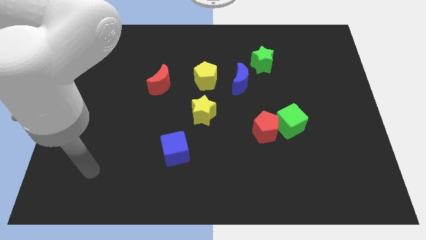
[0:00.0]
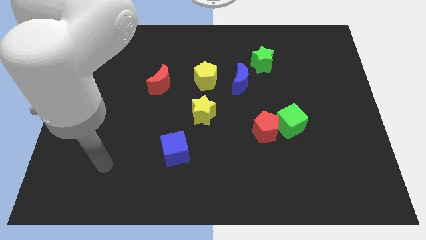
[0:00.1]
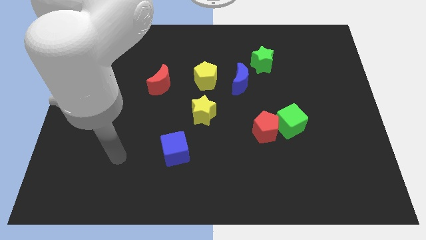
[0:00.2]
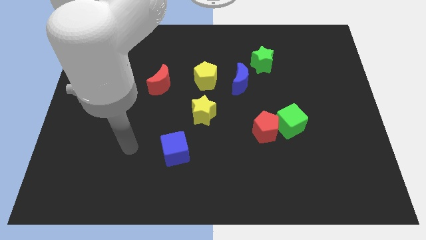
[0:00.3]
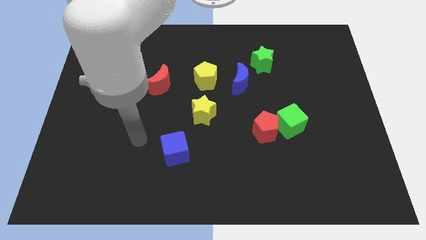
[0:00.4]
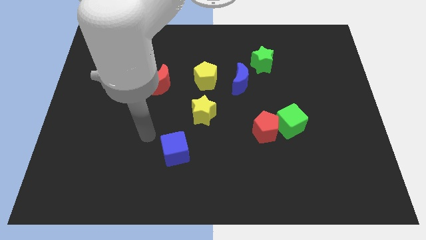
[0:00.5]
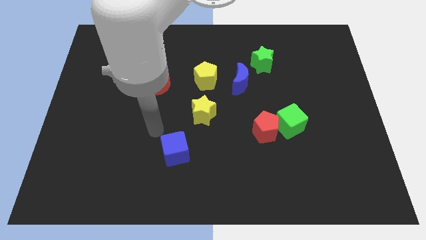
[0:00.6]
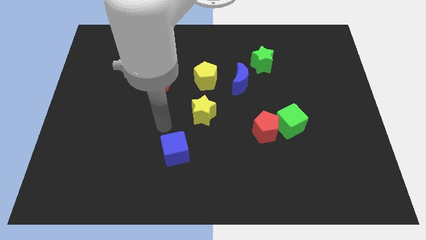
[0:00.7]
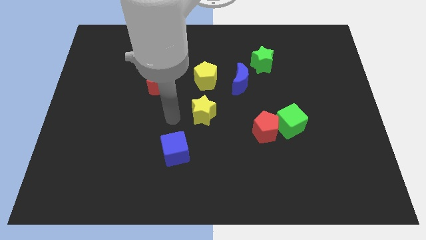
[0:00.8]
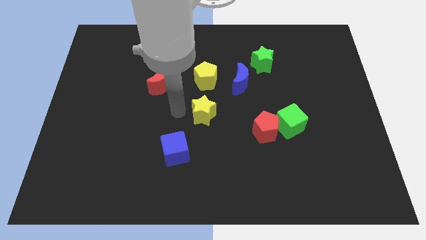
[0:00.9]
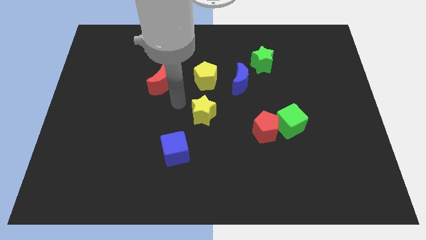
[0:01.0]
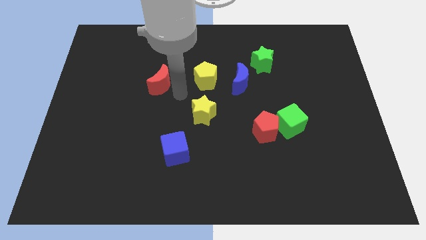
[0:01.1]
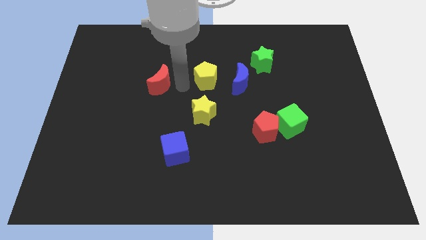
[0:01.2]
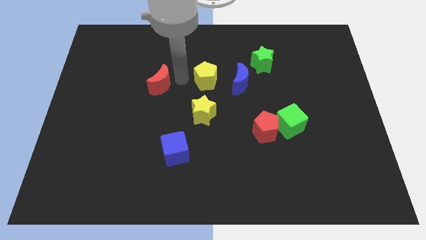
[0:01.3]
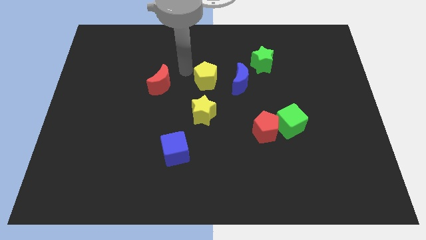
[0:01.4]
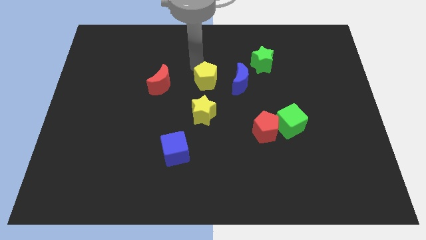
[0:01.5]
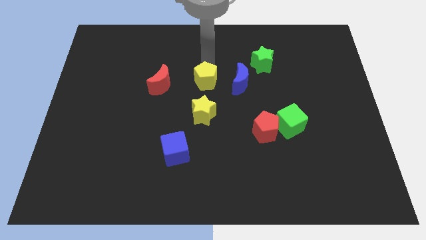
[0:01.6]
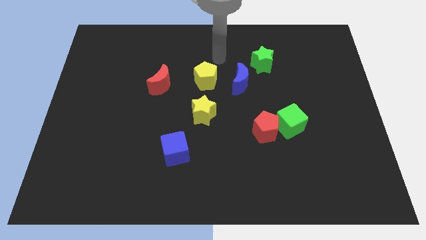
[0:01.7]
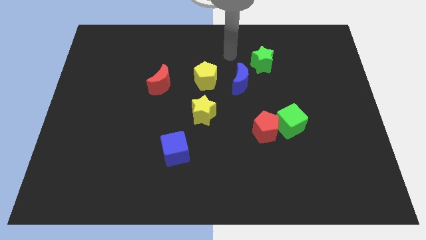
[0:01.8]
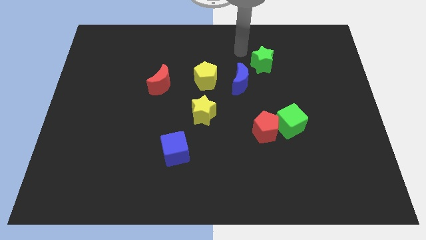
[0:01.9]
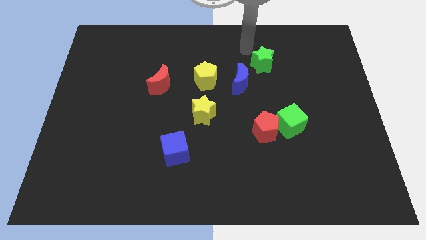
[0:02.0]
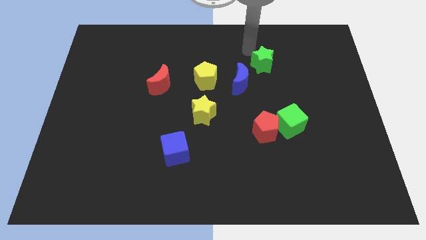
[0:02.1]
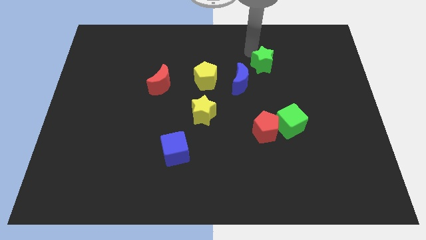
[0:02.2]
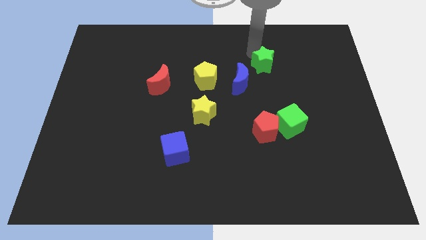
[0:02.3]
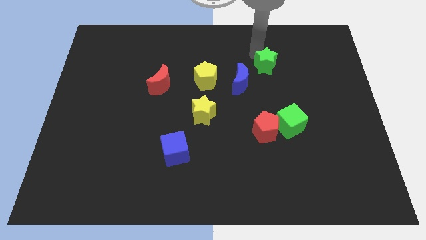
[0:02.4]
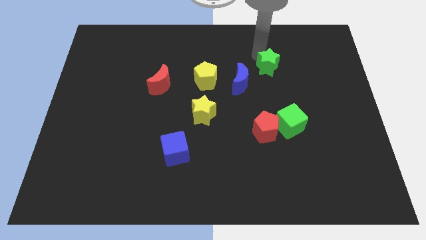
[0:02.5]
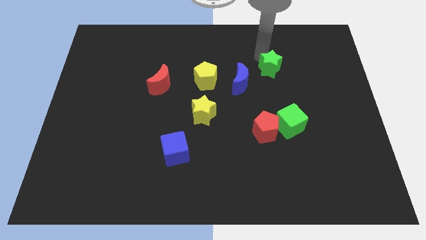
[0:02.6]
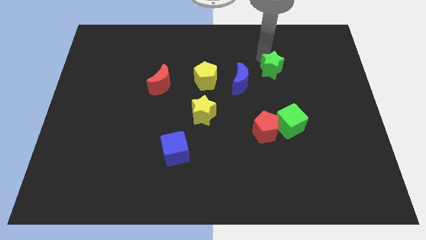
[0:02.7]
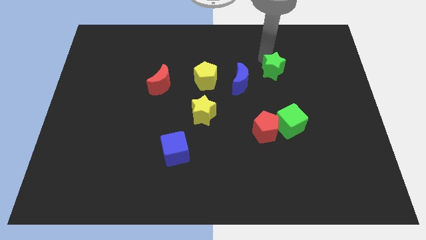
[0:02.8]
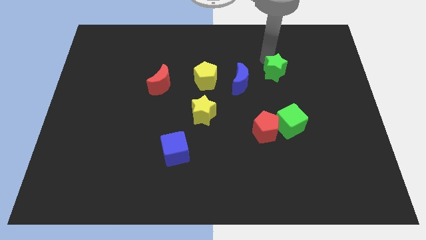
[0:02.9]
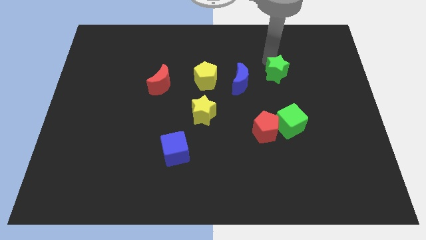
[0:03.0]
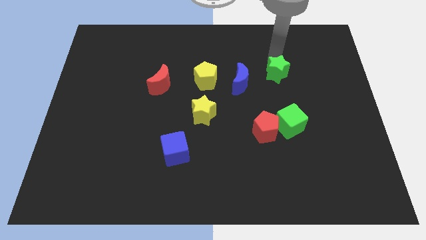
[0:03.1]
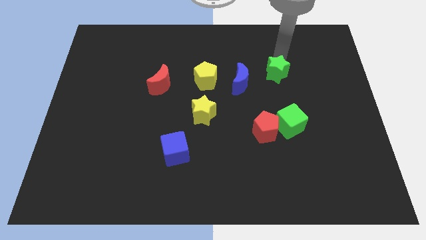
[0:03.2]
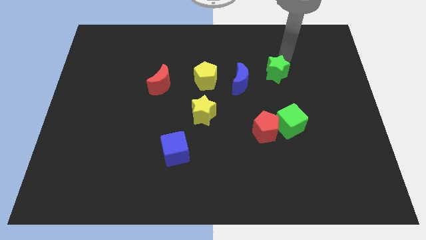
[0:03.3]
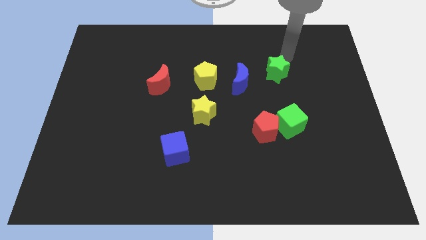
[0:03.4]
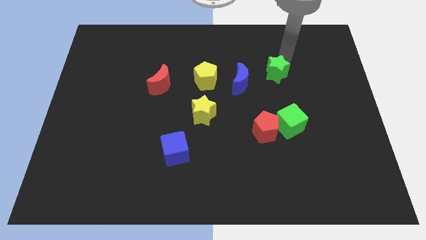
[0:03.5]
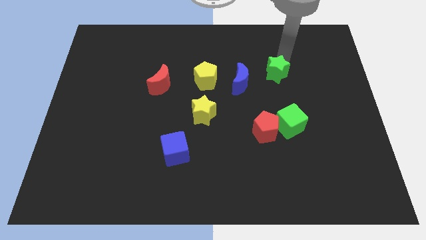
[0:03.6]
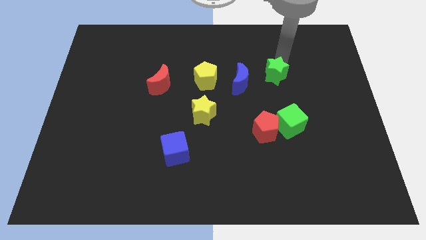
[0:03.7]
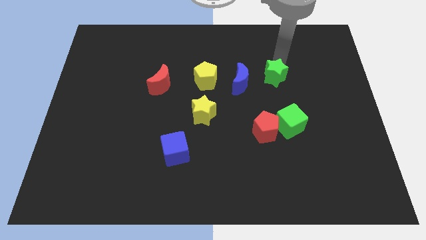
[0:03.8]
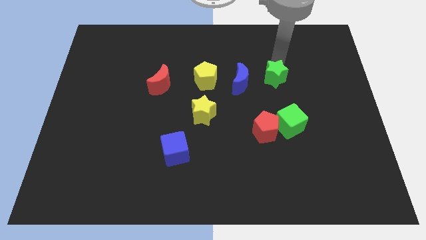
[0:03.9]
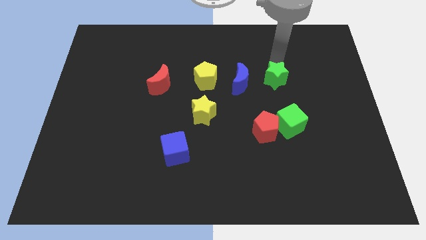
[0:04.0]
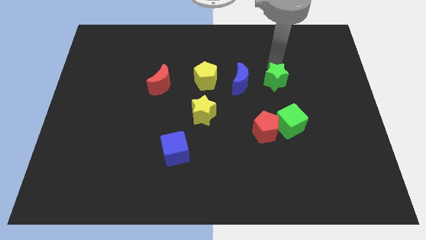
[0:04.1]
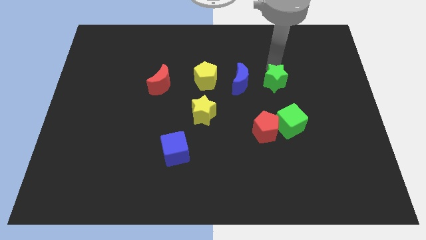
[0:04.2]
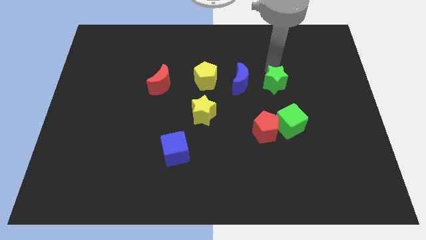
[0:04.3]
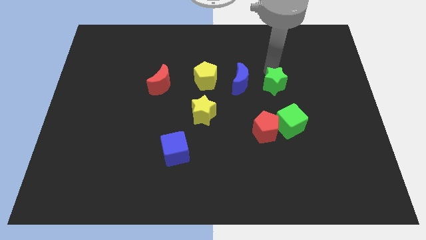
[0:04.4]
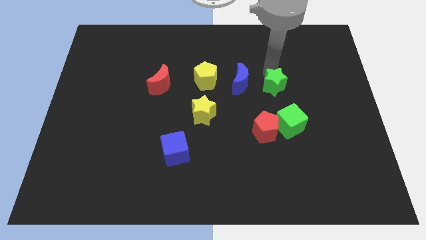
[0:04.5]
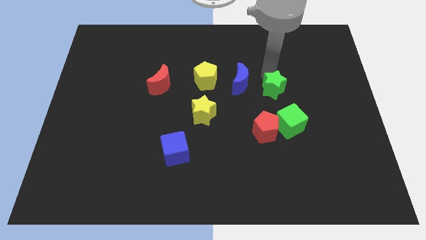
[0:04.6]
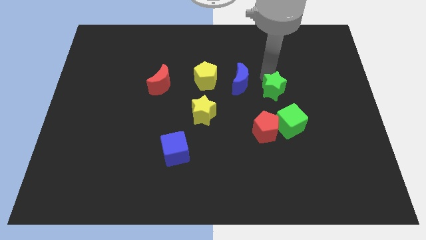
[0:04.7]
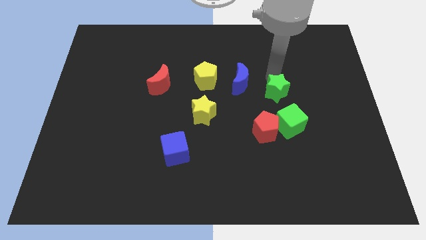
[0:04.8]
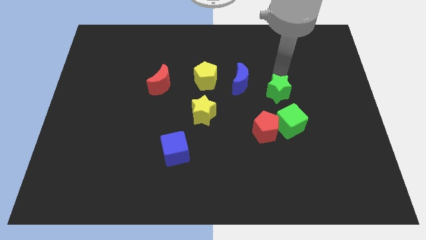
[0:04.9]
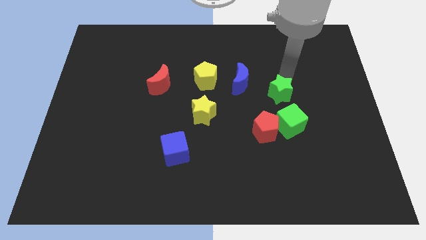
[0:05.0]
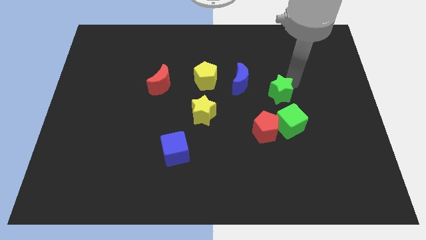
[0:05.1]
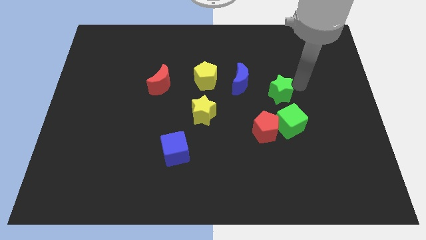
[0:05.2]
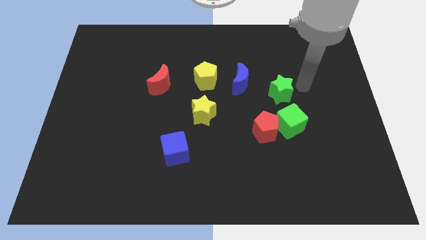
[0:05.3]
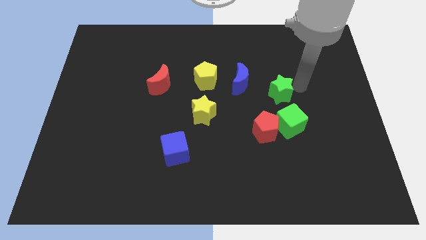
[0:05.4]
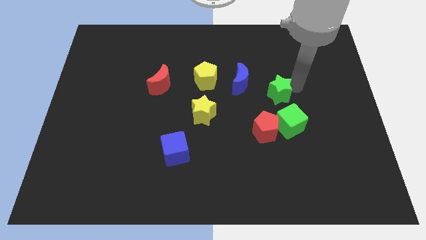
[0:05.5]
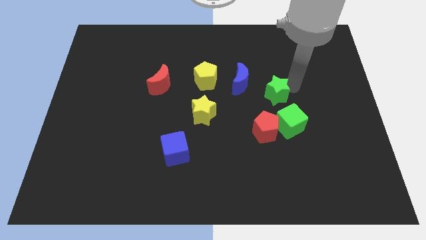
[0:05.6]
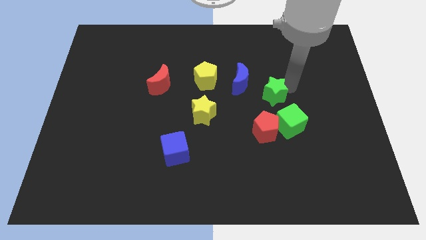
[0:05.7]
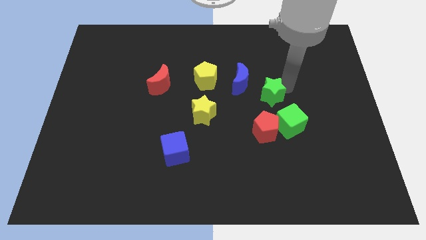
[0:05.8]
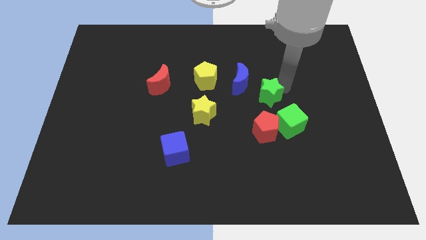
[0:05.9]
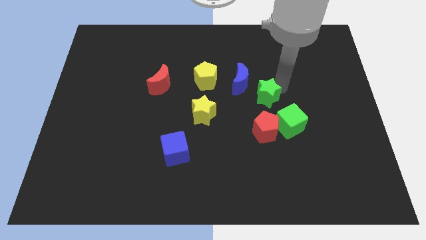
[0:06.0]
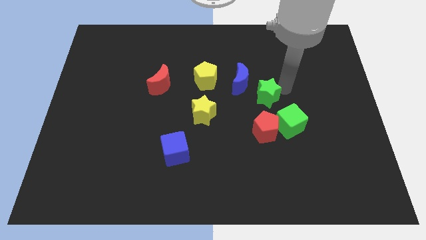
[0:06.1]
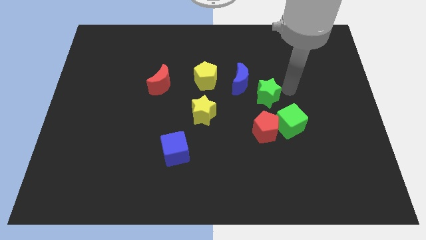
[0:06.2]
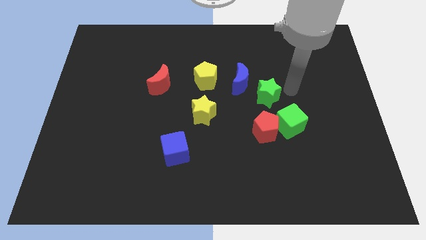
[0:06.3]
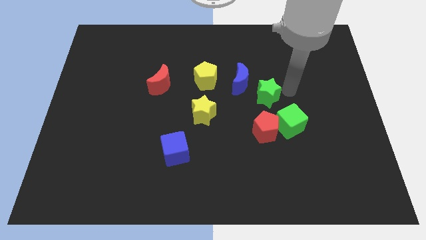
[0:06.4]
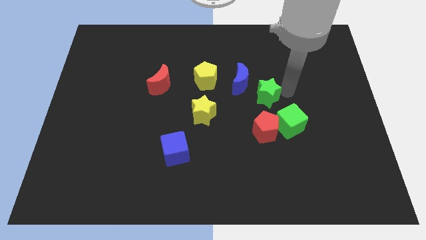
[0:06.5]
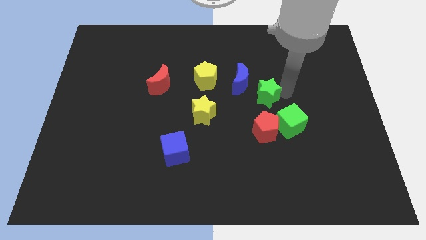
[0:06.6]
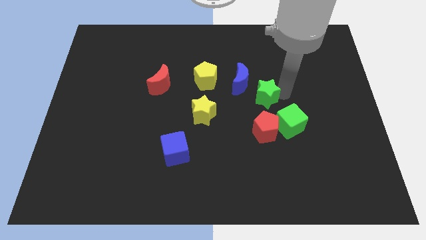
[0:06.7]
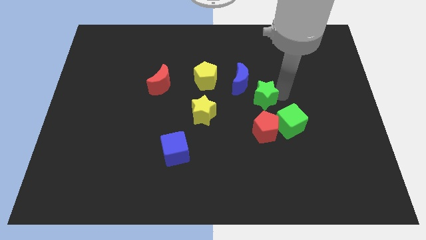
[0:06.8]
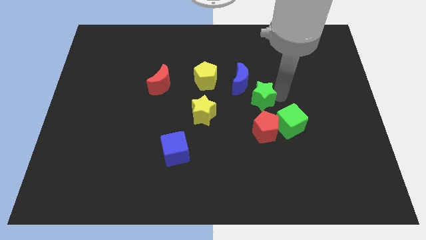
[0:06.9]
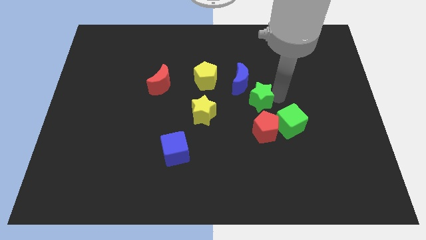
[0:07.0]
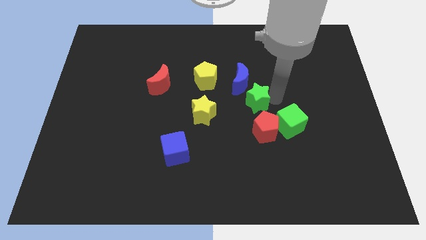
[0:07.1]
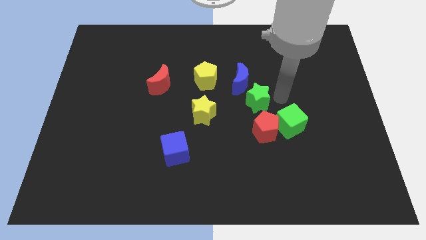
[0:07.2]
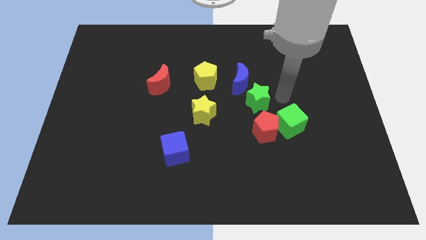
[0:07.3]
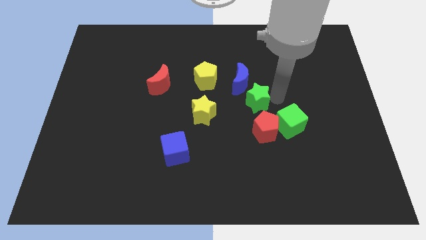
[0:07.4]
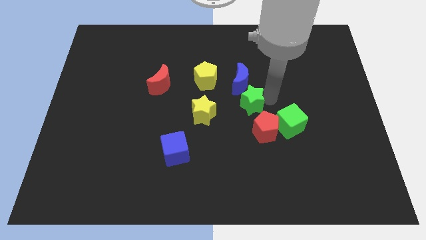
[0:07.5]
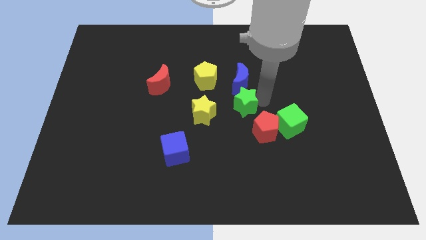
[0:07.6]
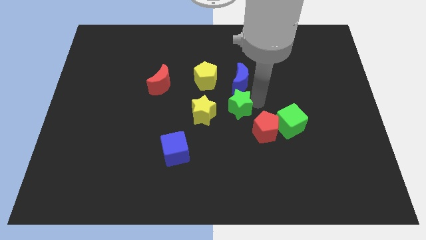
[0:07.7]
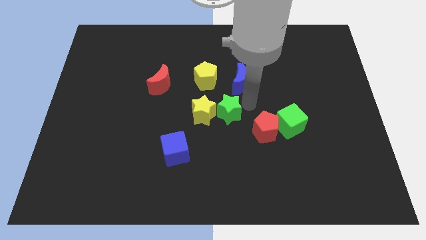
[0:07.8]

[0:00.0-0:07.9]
move the green star close to the yellow star
